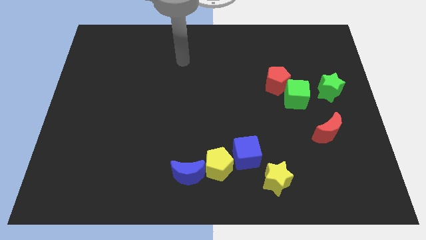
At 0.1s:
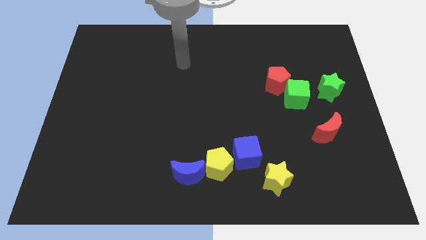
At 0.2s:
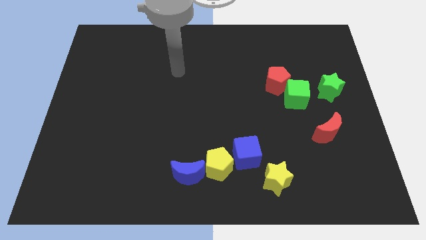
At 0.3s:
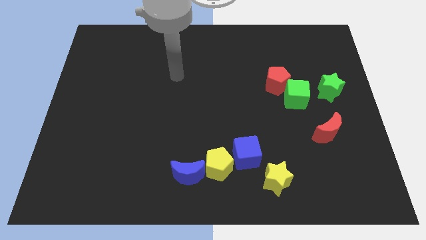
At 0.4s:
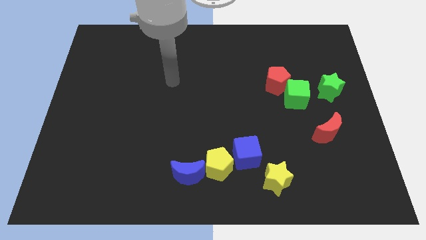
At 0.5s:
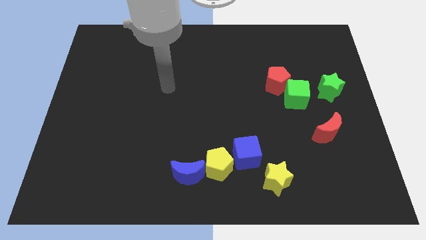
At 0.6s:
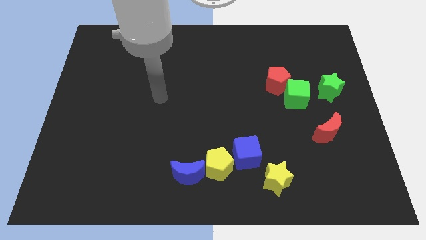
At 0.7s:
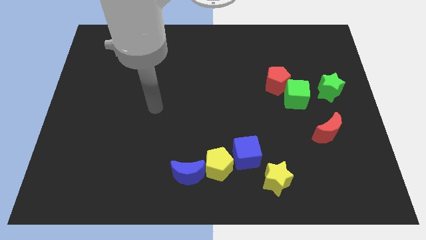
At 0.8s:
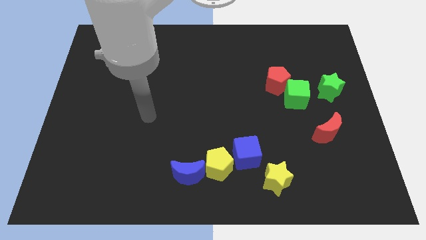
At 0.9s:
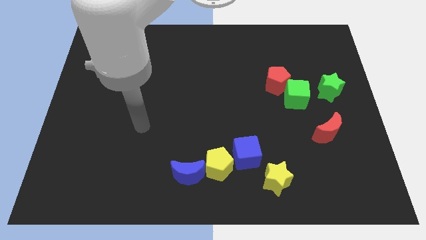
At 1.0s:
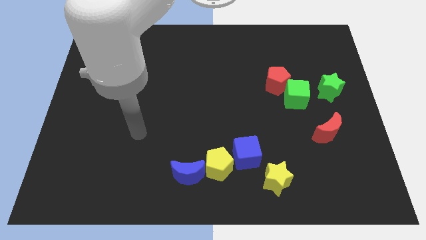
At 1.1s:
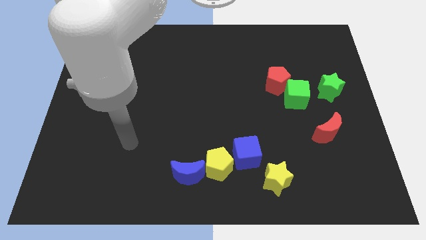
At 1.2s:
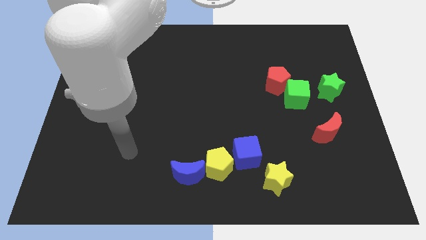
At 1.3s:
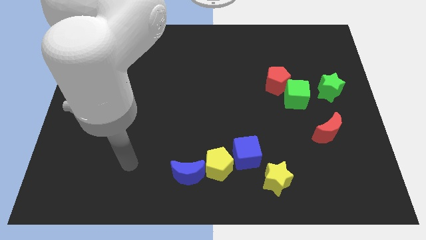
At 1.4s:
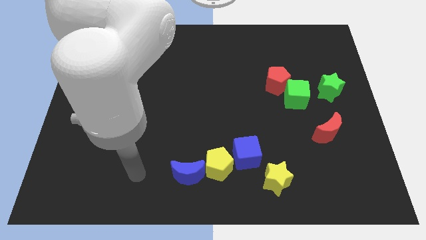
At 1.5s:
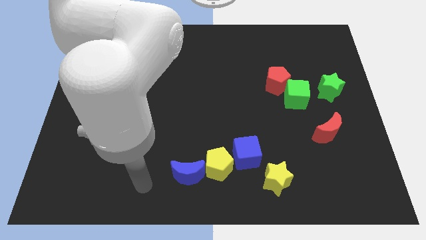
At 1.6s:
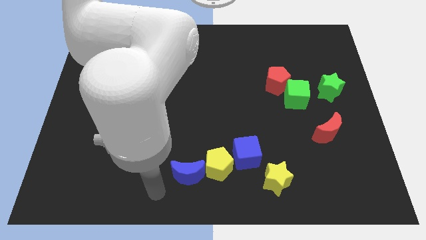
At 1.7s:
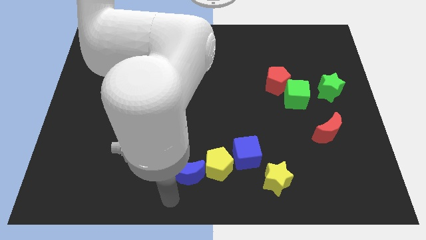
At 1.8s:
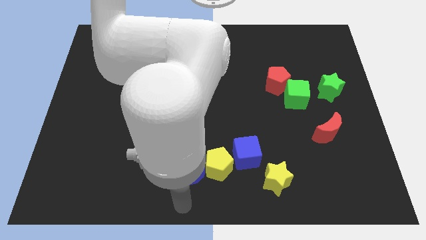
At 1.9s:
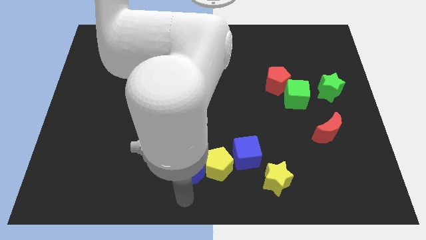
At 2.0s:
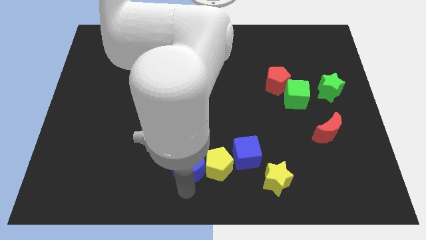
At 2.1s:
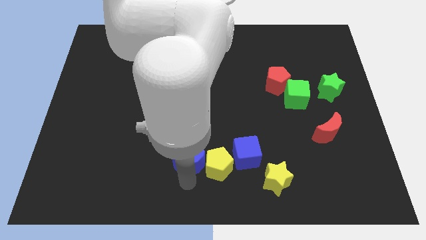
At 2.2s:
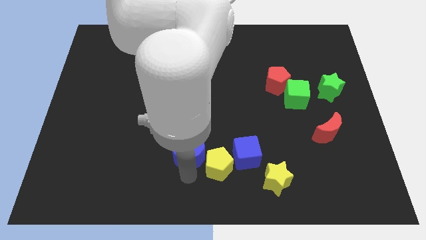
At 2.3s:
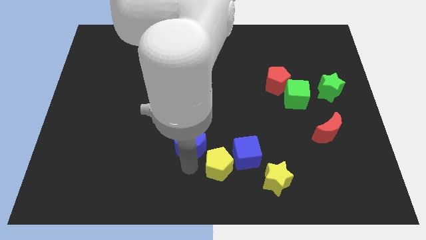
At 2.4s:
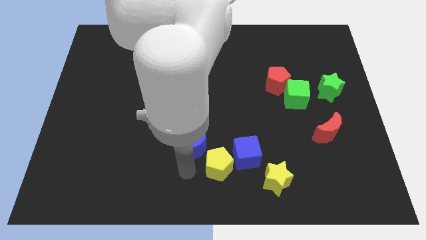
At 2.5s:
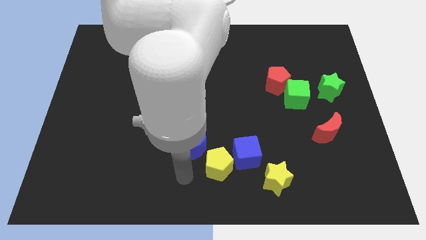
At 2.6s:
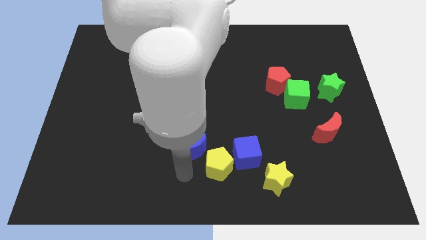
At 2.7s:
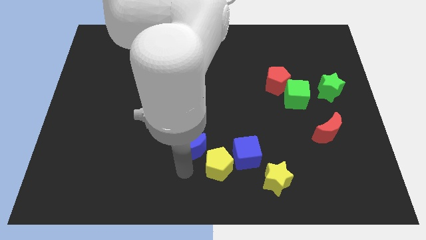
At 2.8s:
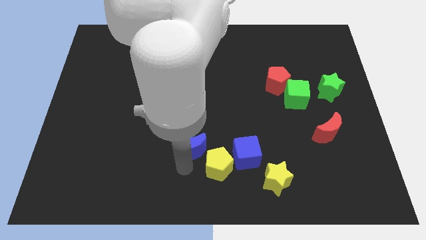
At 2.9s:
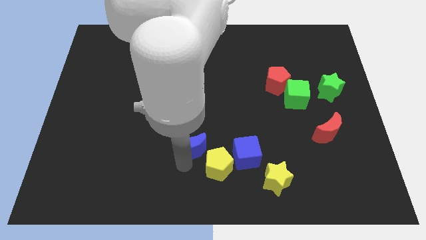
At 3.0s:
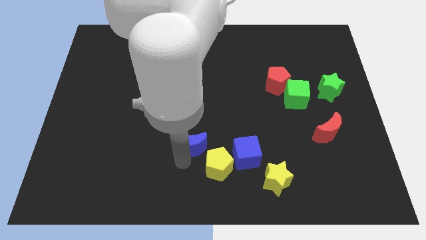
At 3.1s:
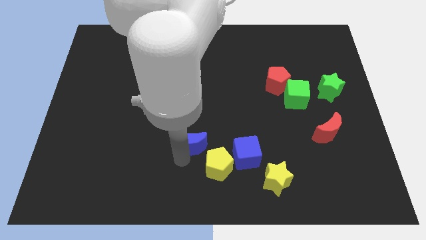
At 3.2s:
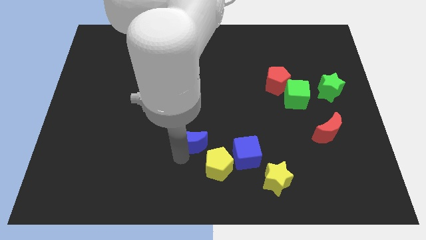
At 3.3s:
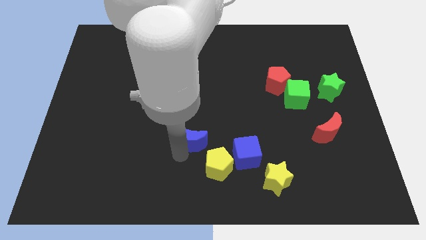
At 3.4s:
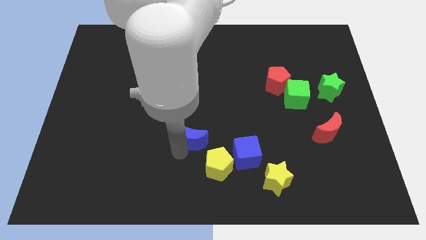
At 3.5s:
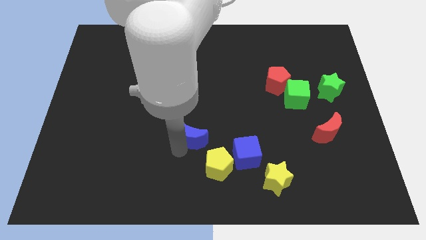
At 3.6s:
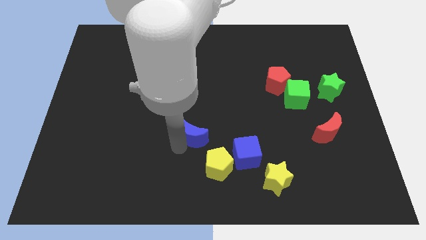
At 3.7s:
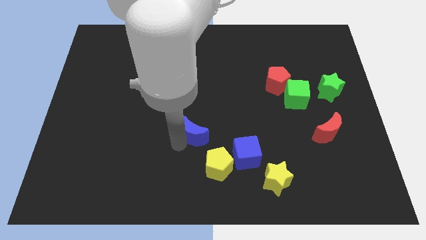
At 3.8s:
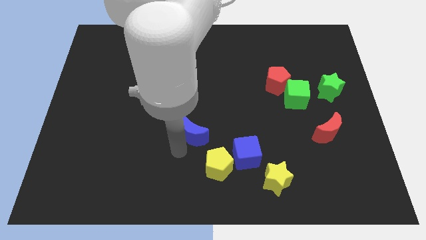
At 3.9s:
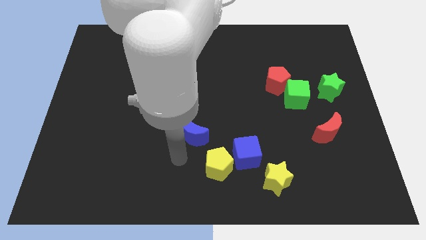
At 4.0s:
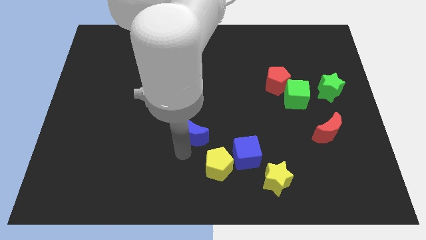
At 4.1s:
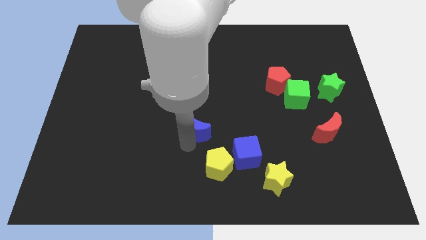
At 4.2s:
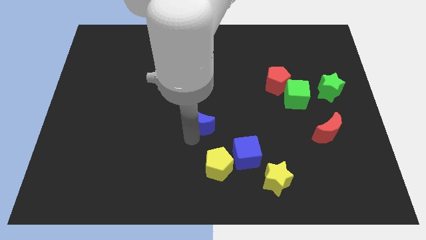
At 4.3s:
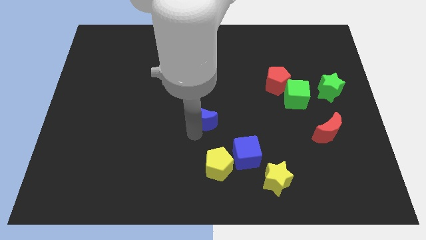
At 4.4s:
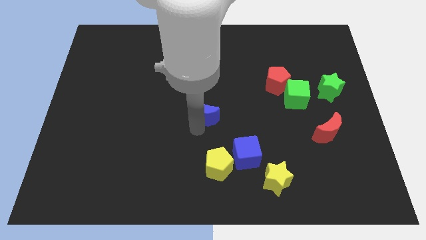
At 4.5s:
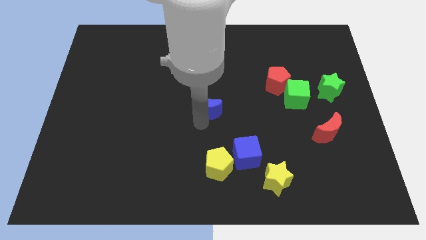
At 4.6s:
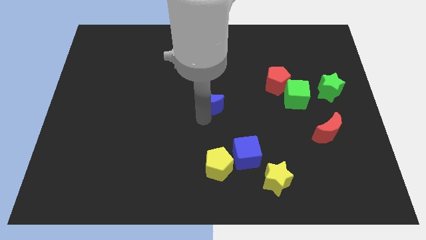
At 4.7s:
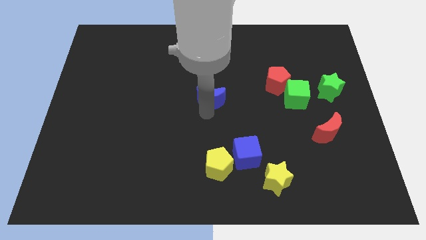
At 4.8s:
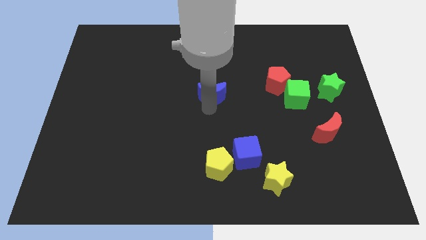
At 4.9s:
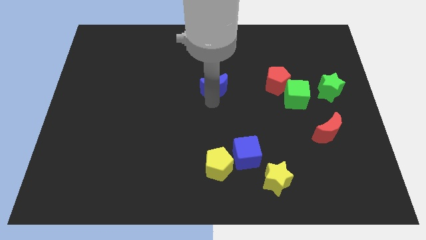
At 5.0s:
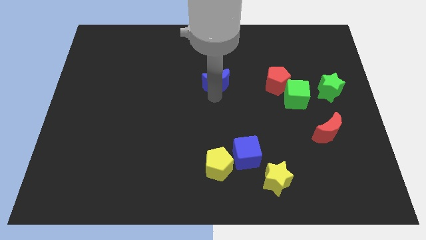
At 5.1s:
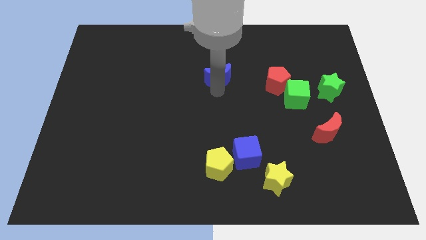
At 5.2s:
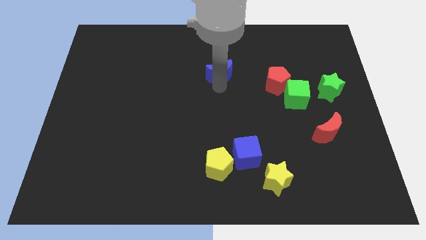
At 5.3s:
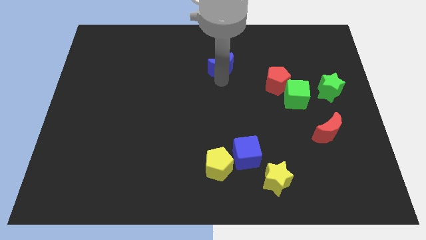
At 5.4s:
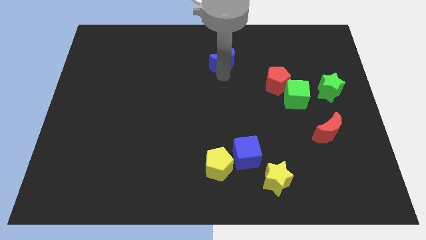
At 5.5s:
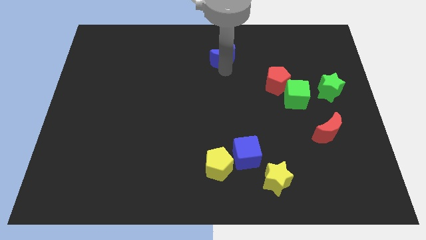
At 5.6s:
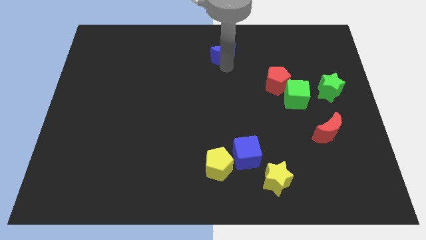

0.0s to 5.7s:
push the blue moon to the top

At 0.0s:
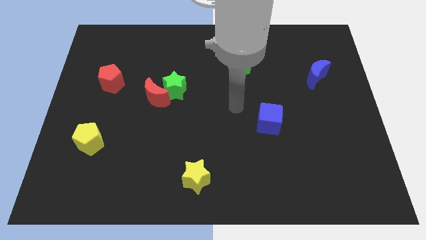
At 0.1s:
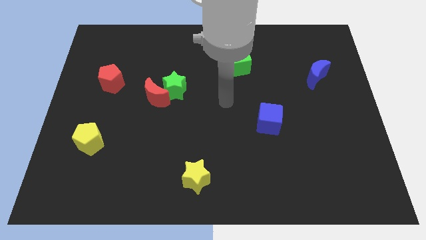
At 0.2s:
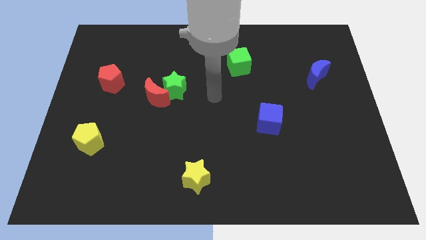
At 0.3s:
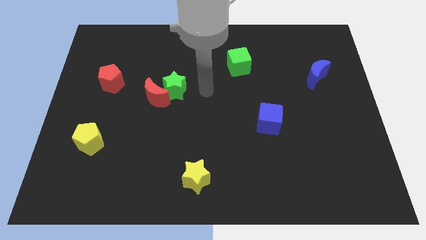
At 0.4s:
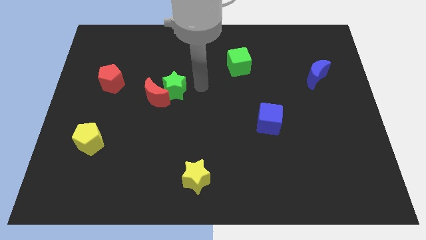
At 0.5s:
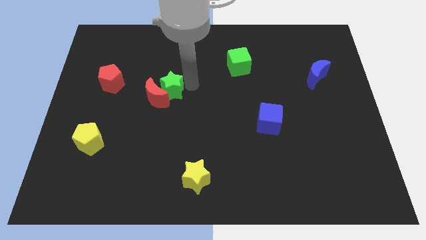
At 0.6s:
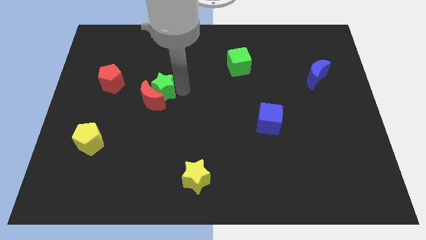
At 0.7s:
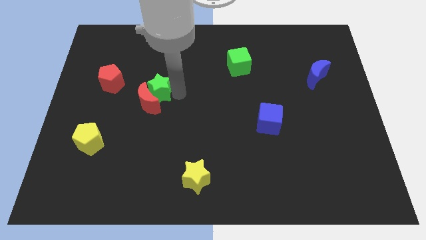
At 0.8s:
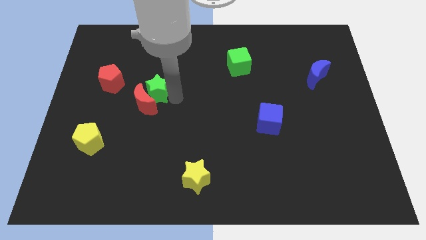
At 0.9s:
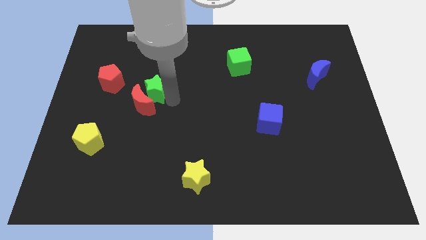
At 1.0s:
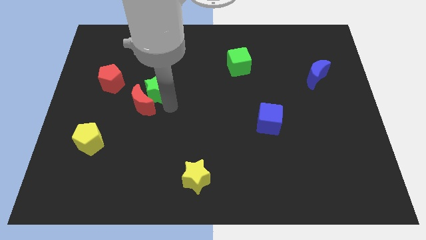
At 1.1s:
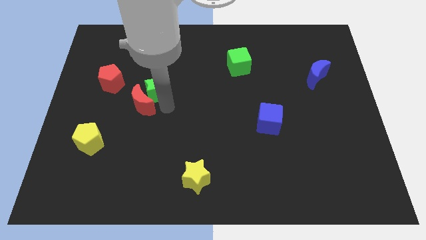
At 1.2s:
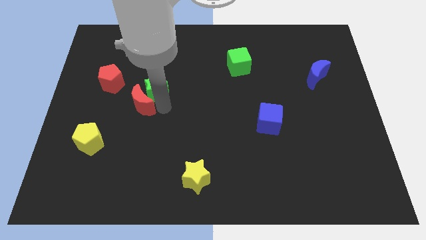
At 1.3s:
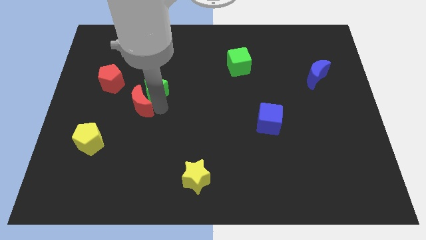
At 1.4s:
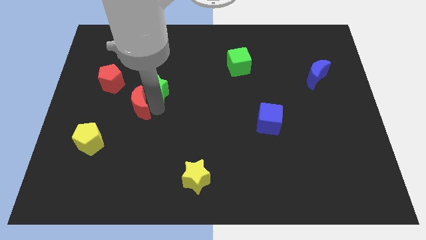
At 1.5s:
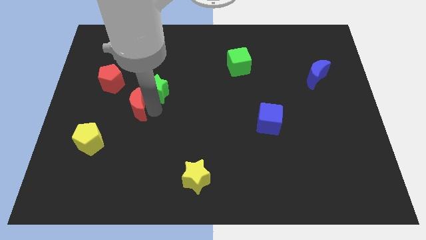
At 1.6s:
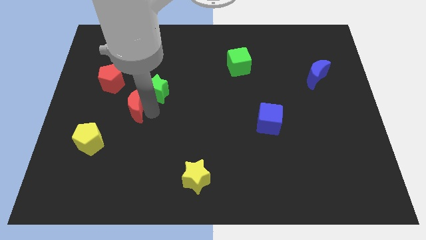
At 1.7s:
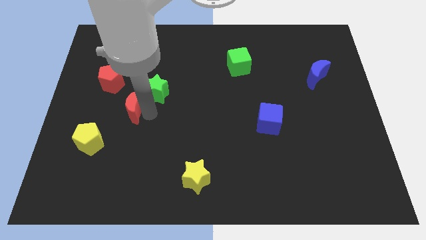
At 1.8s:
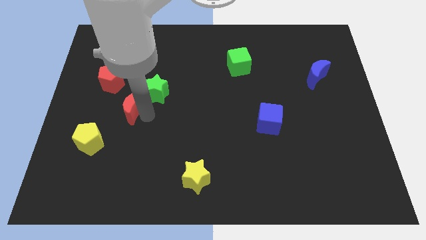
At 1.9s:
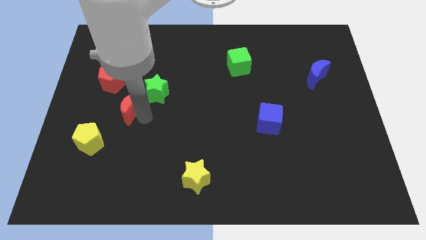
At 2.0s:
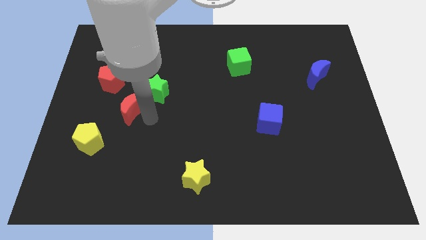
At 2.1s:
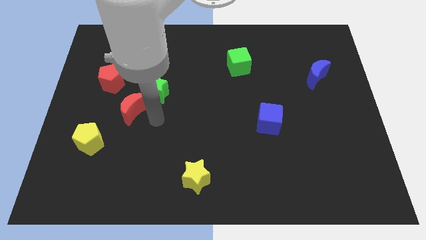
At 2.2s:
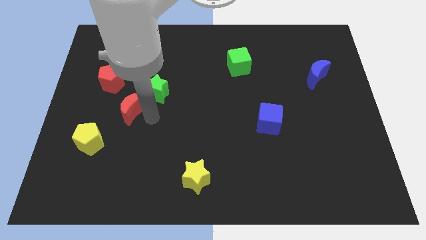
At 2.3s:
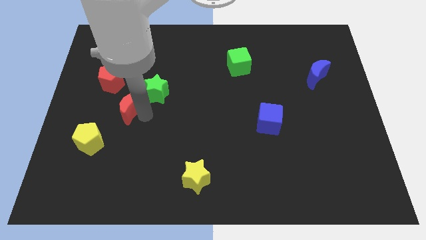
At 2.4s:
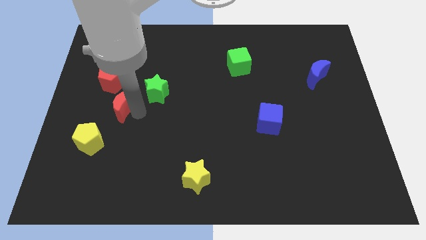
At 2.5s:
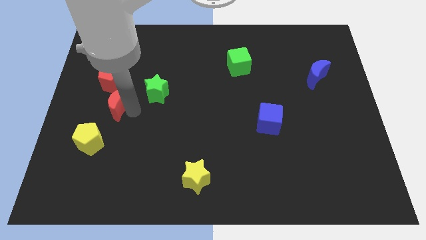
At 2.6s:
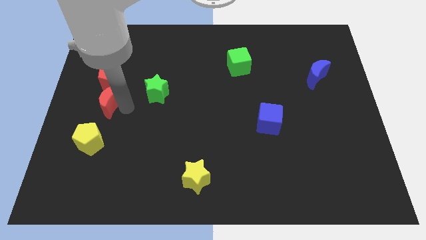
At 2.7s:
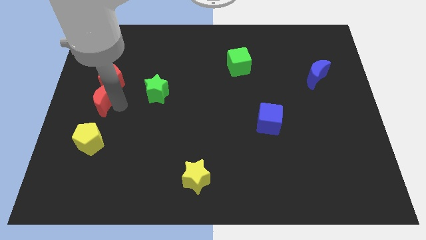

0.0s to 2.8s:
move the red moon to the center left
